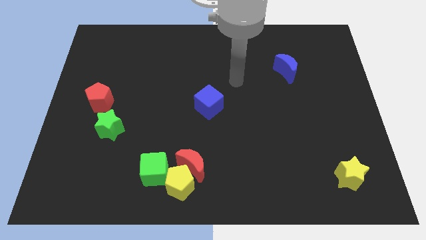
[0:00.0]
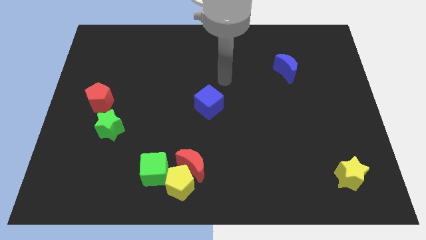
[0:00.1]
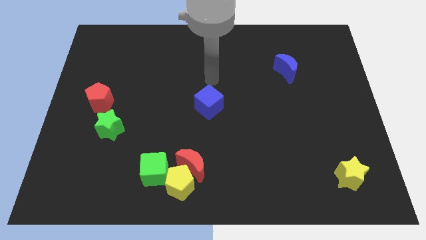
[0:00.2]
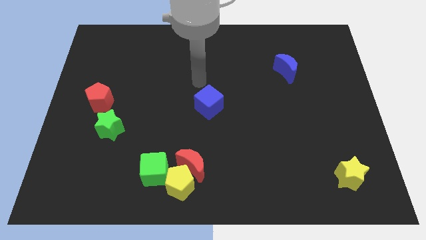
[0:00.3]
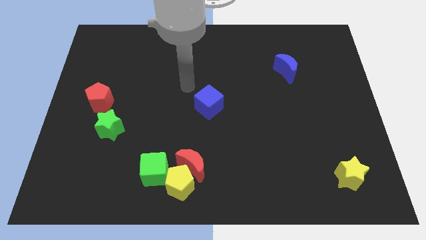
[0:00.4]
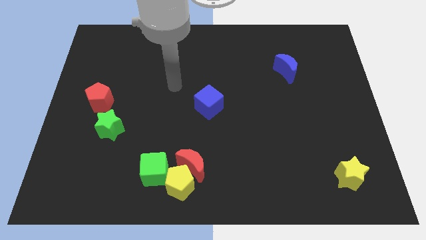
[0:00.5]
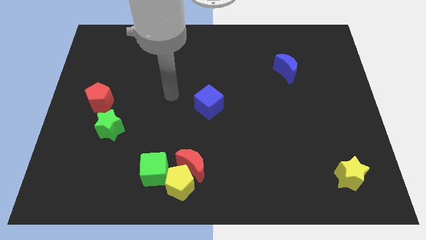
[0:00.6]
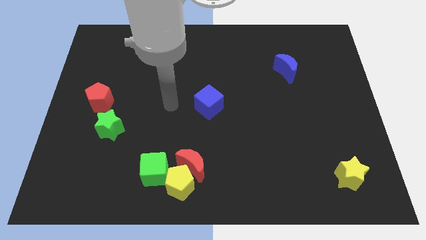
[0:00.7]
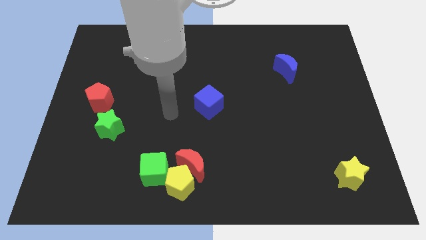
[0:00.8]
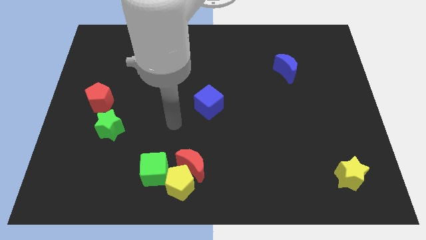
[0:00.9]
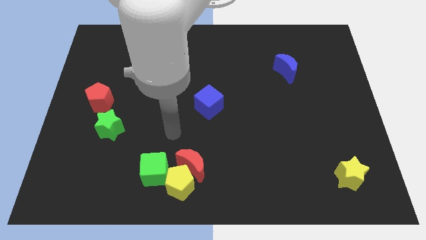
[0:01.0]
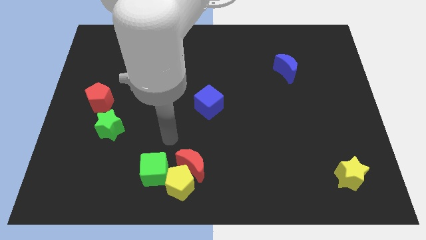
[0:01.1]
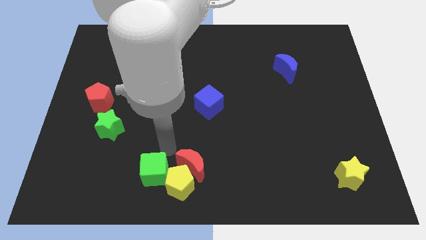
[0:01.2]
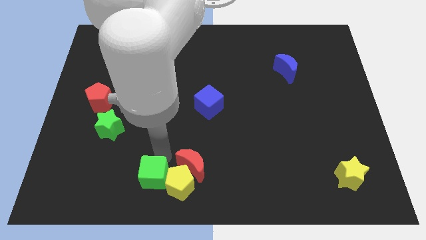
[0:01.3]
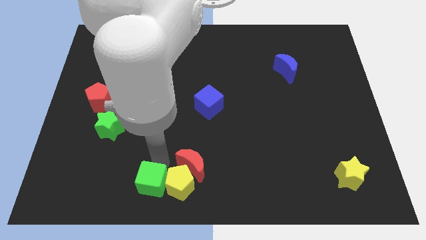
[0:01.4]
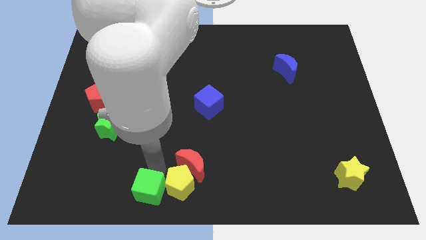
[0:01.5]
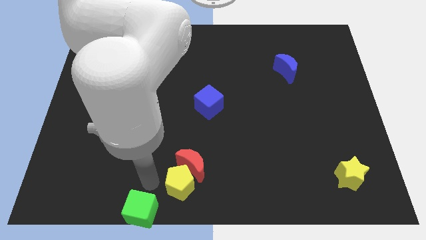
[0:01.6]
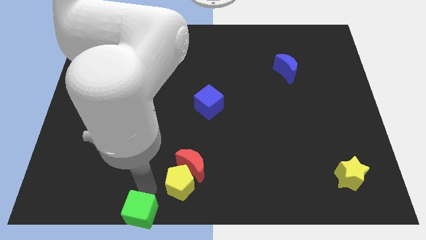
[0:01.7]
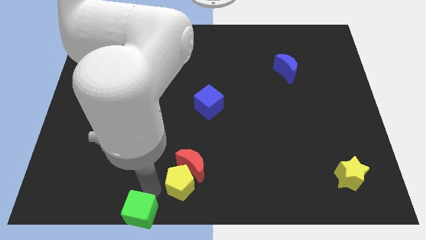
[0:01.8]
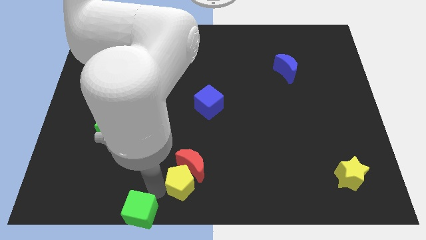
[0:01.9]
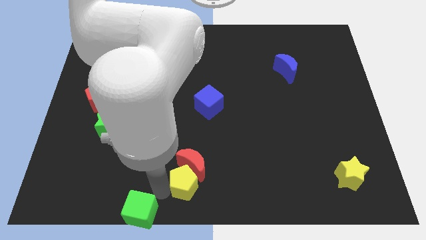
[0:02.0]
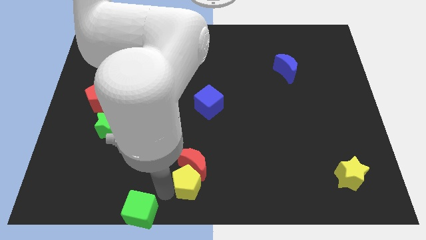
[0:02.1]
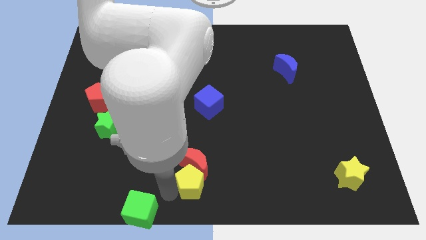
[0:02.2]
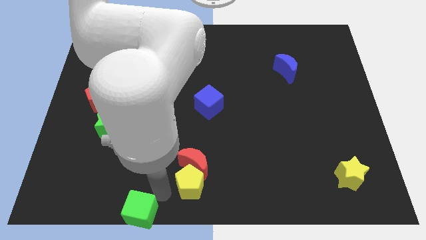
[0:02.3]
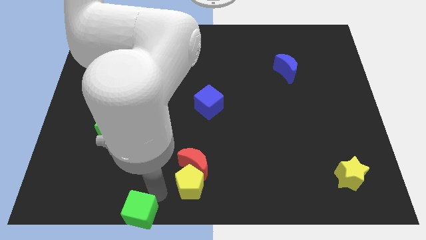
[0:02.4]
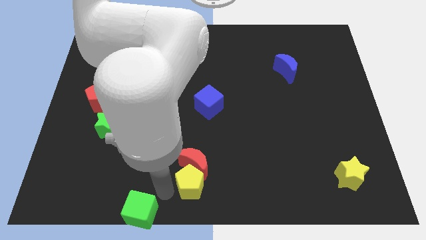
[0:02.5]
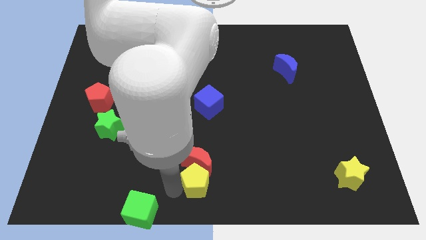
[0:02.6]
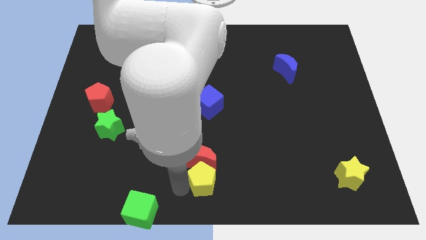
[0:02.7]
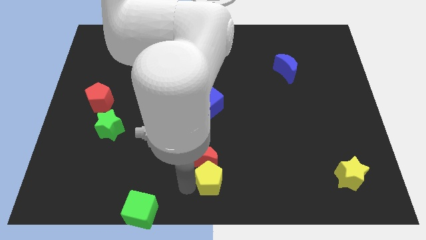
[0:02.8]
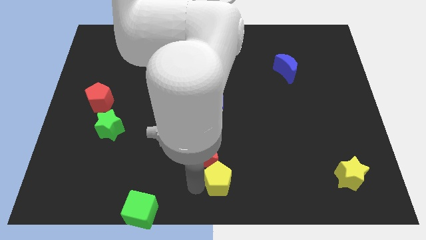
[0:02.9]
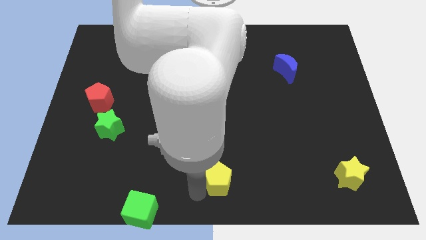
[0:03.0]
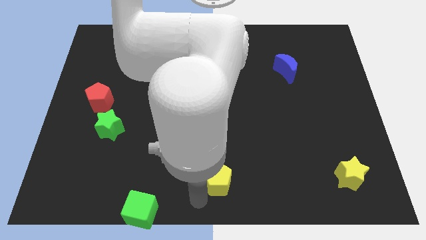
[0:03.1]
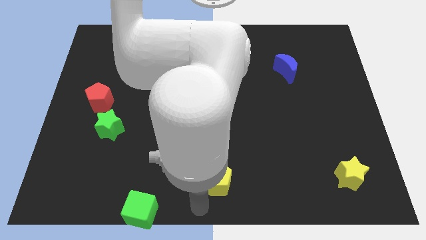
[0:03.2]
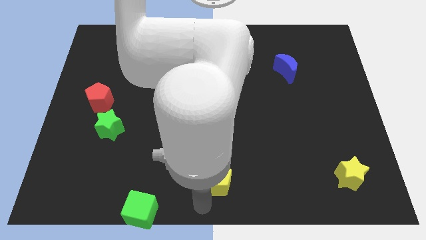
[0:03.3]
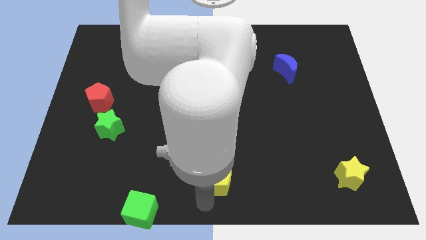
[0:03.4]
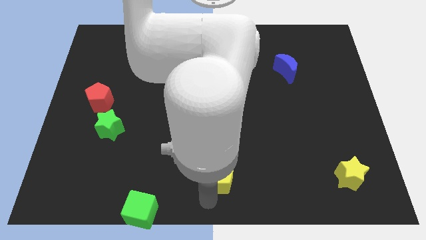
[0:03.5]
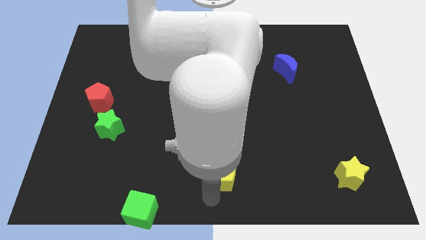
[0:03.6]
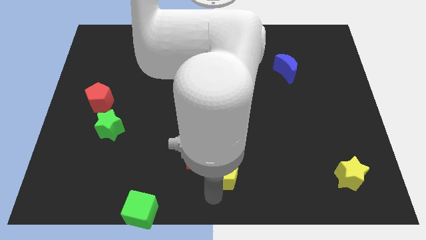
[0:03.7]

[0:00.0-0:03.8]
slide the yellow pentagon a little diagonally up and right

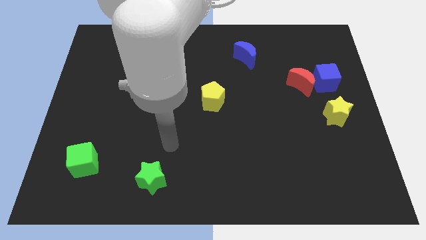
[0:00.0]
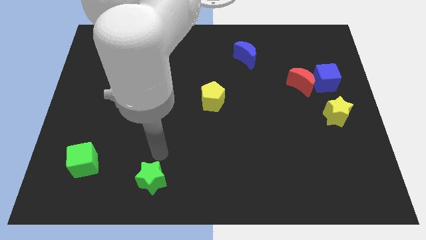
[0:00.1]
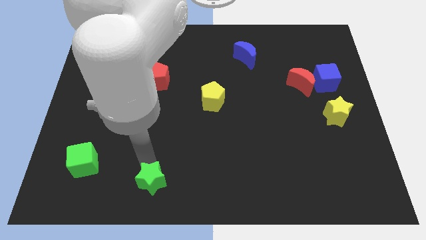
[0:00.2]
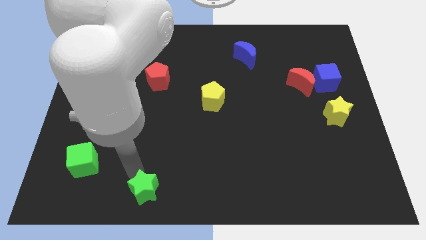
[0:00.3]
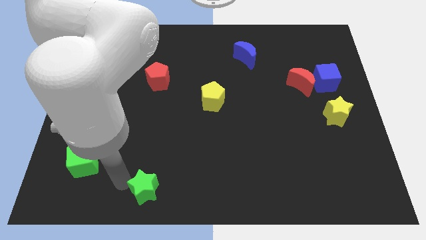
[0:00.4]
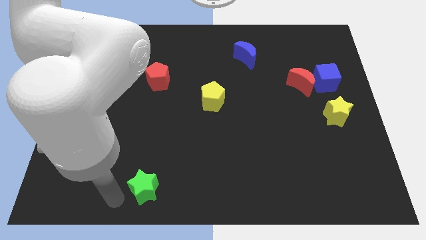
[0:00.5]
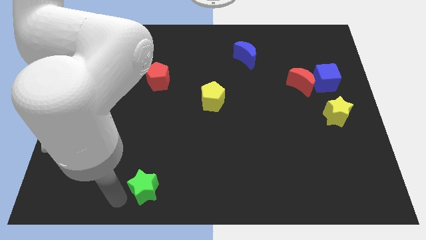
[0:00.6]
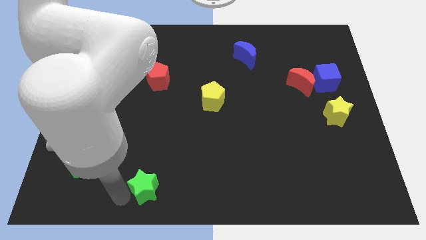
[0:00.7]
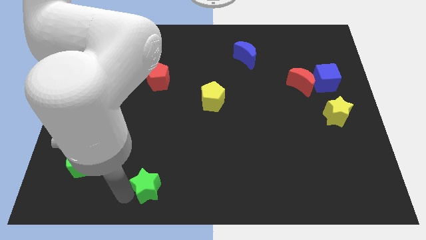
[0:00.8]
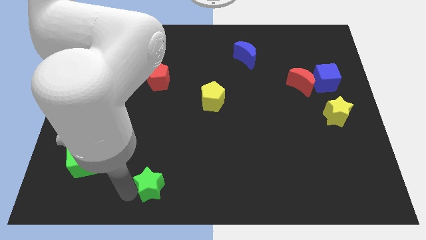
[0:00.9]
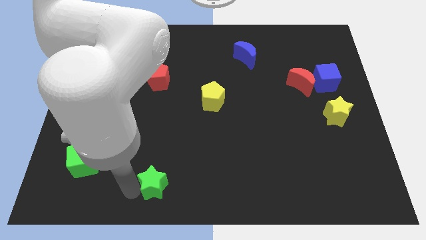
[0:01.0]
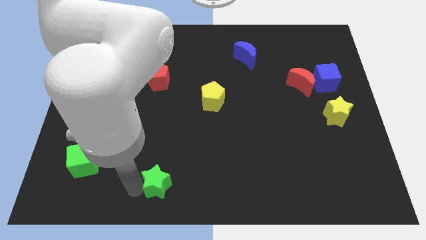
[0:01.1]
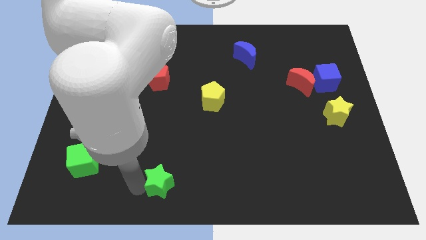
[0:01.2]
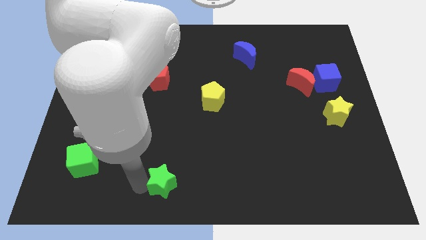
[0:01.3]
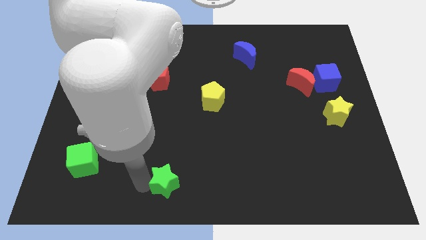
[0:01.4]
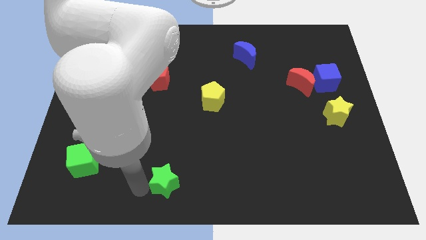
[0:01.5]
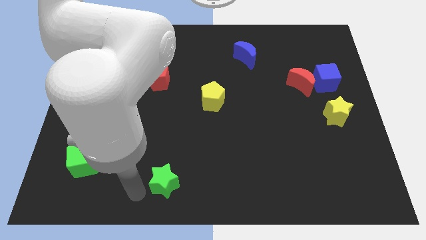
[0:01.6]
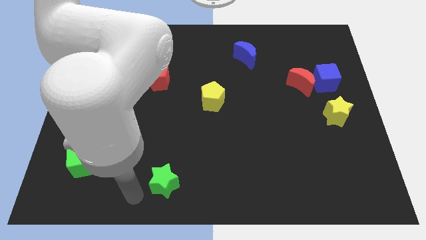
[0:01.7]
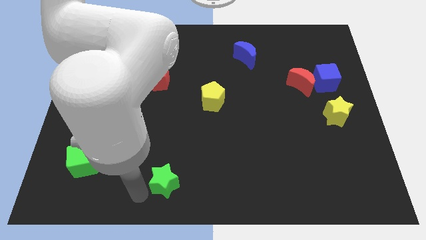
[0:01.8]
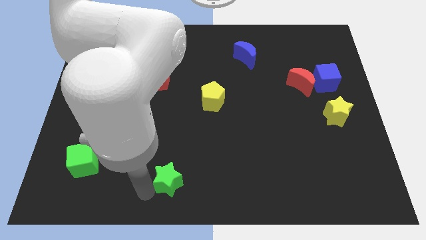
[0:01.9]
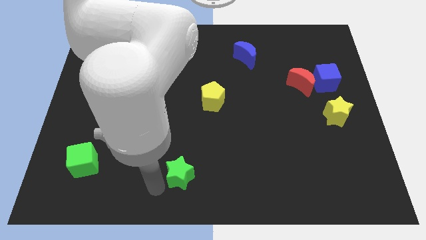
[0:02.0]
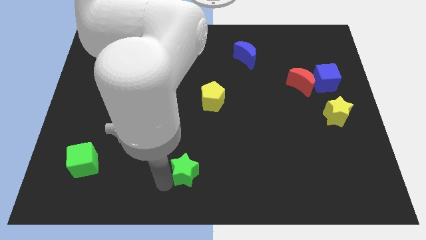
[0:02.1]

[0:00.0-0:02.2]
move the green star somewhat to the right

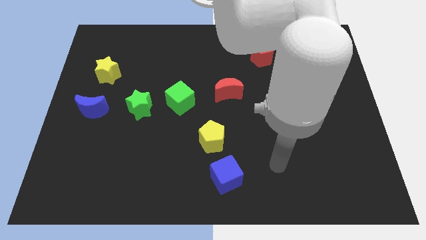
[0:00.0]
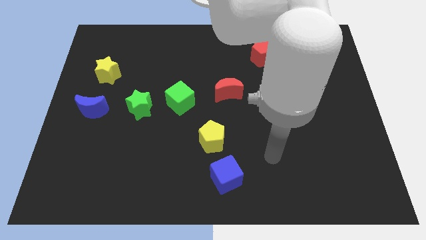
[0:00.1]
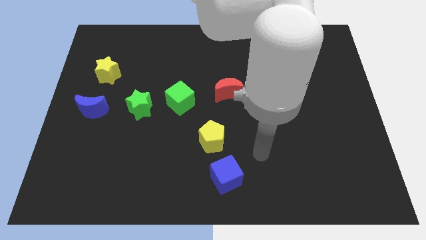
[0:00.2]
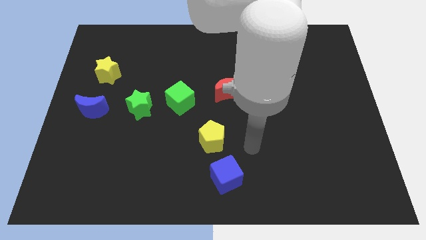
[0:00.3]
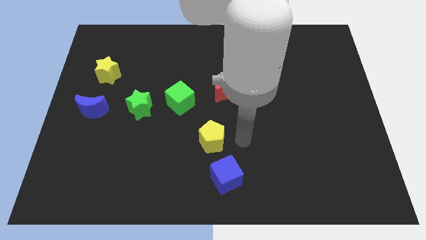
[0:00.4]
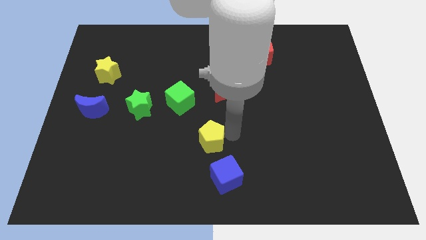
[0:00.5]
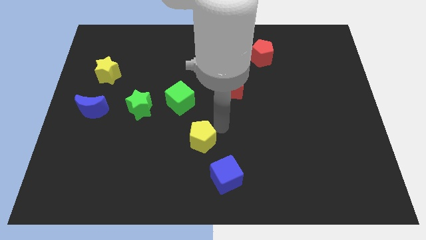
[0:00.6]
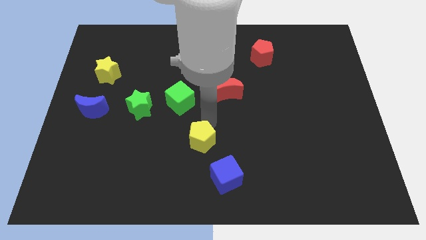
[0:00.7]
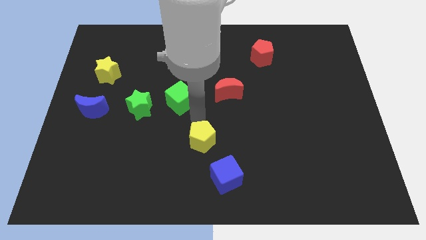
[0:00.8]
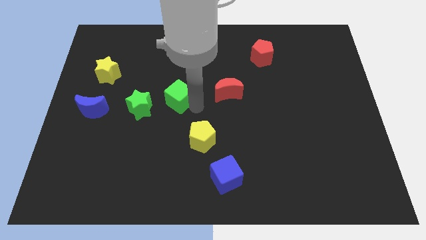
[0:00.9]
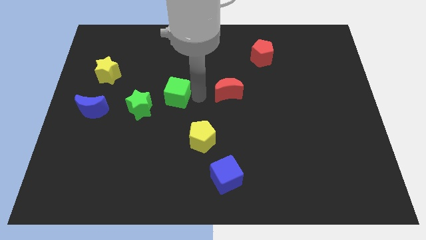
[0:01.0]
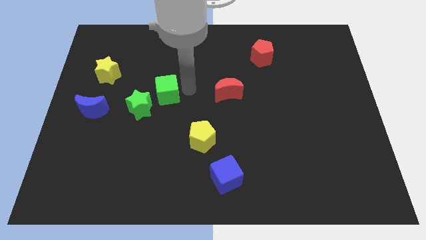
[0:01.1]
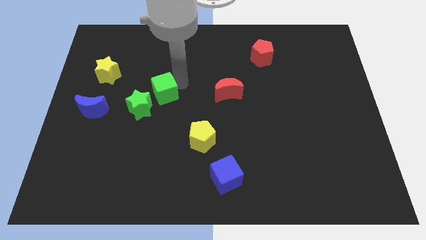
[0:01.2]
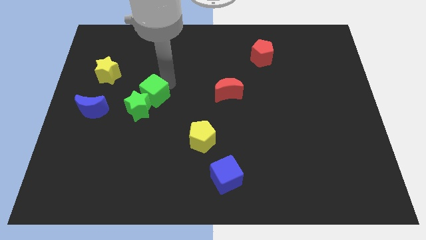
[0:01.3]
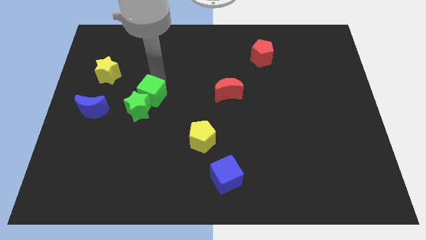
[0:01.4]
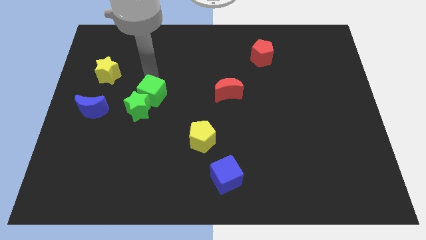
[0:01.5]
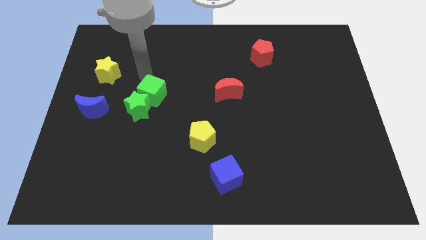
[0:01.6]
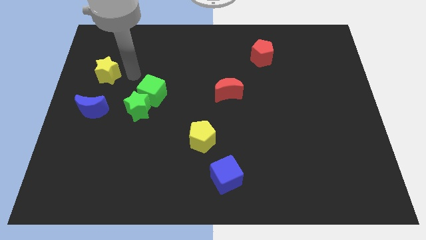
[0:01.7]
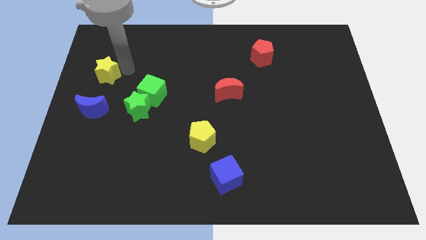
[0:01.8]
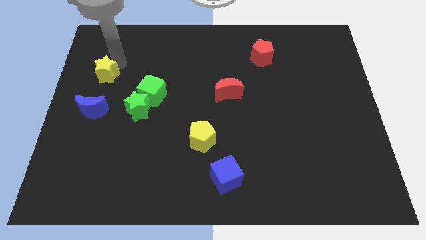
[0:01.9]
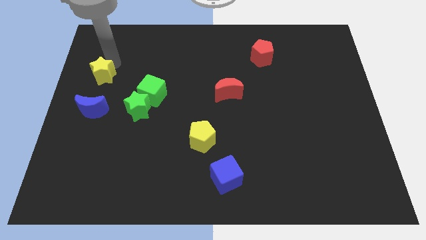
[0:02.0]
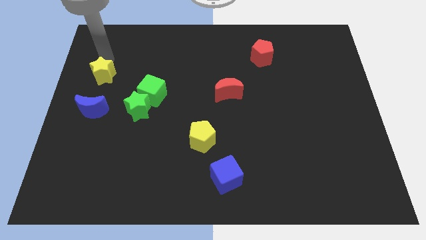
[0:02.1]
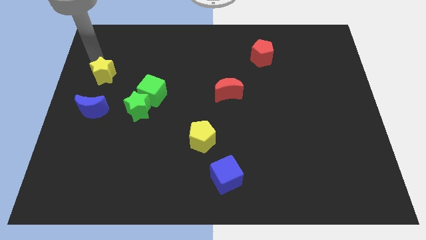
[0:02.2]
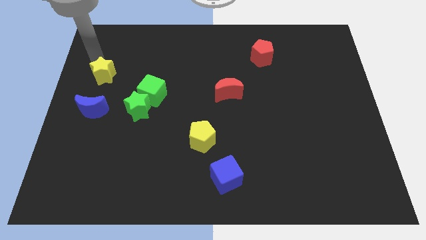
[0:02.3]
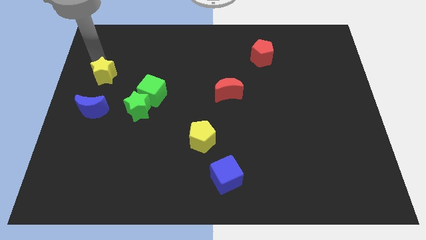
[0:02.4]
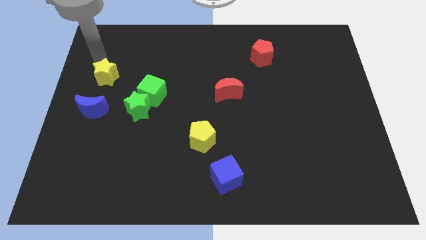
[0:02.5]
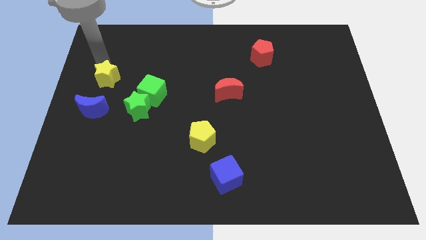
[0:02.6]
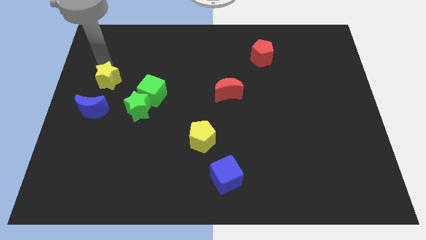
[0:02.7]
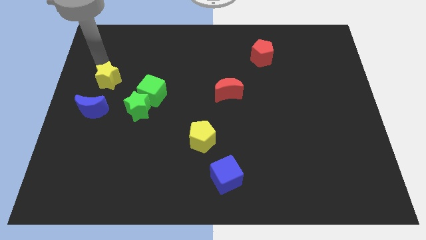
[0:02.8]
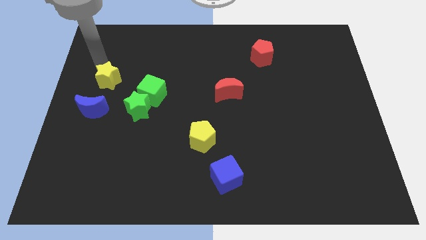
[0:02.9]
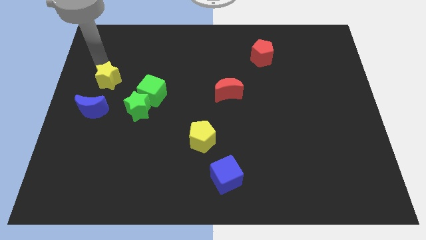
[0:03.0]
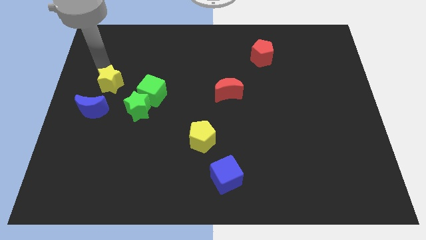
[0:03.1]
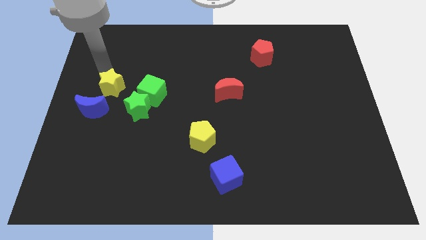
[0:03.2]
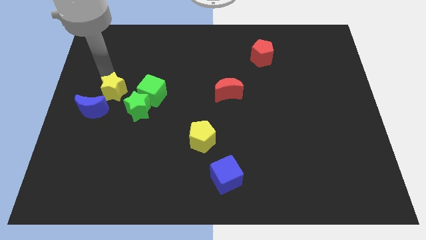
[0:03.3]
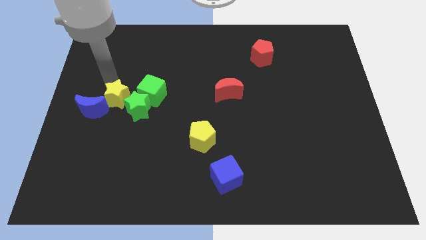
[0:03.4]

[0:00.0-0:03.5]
push the yellow star a little downwards
